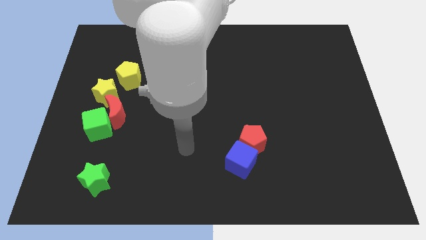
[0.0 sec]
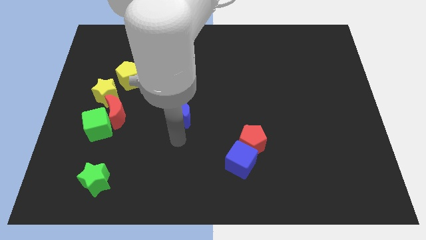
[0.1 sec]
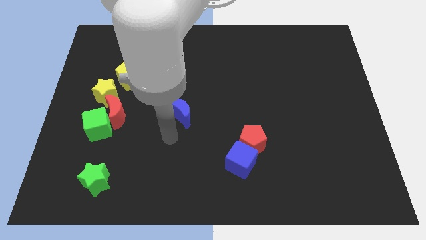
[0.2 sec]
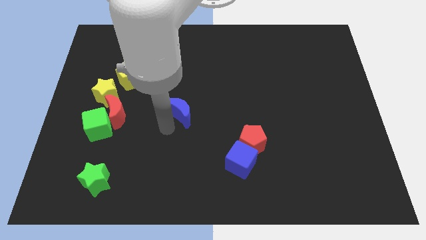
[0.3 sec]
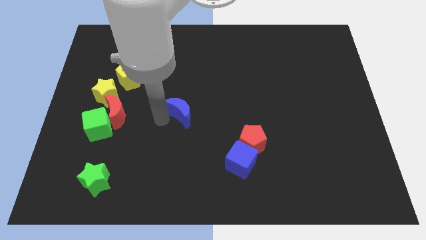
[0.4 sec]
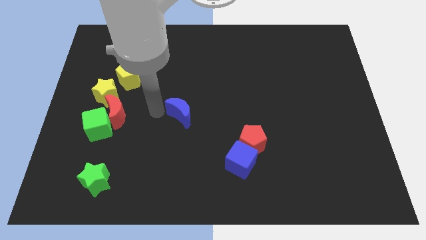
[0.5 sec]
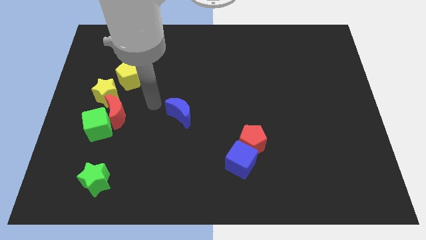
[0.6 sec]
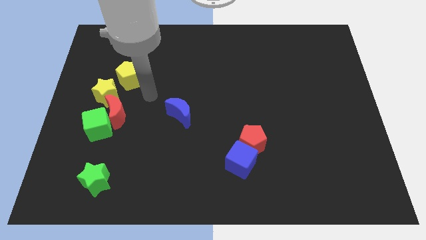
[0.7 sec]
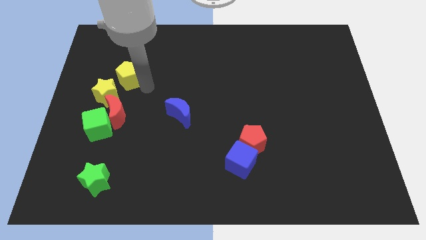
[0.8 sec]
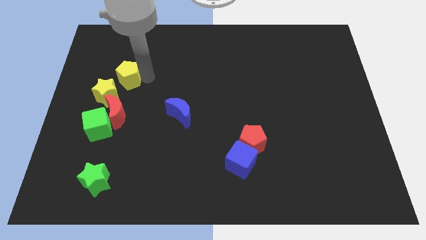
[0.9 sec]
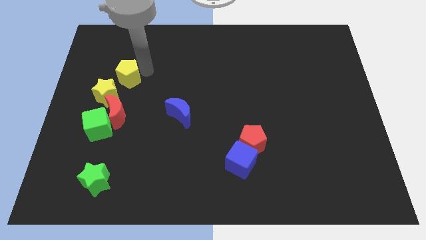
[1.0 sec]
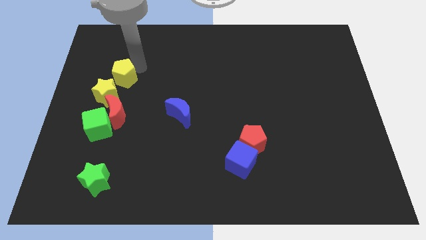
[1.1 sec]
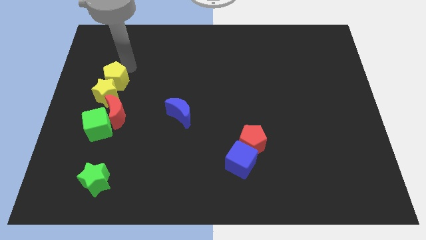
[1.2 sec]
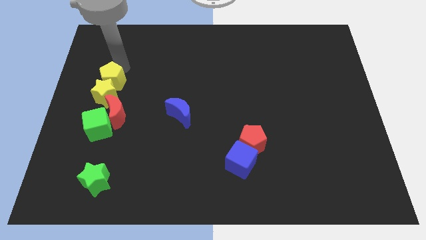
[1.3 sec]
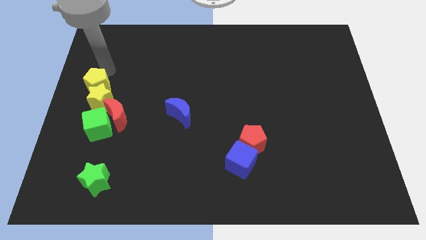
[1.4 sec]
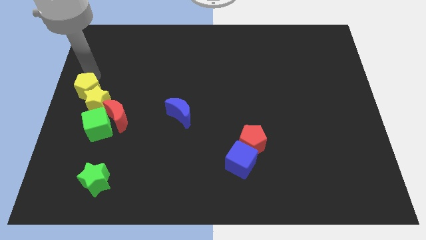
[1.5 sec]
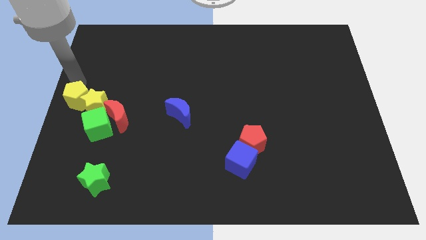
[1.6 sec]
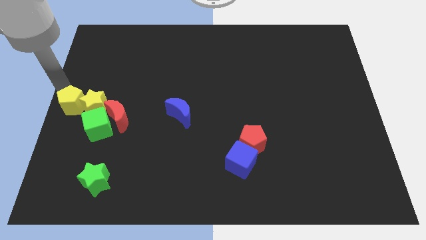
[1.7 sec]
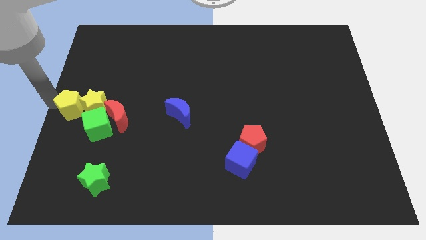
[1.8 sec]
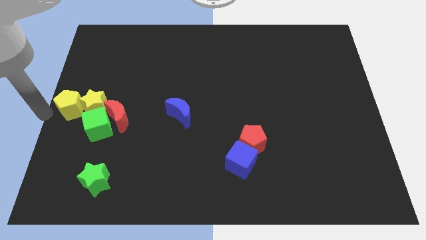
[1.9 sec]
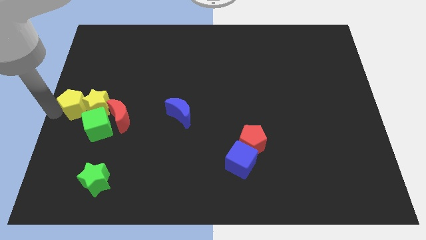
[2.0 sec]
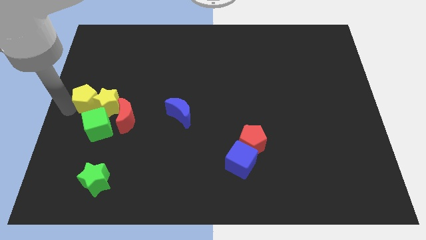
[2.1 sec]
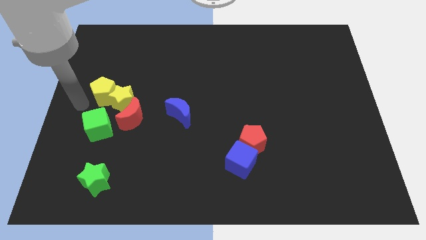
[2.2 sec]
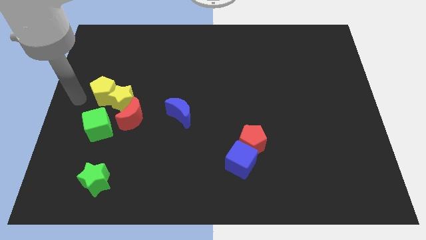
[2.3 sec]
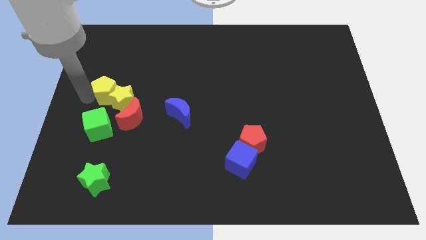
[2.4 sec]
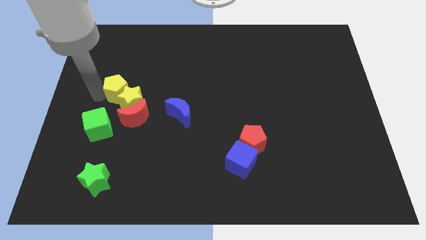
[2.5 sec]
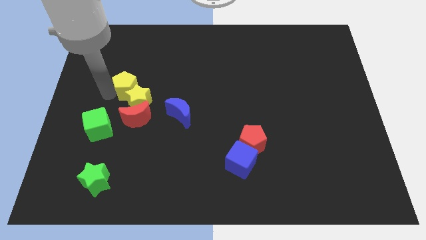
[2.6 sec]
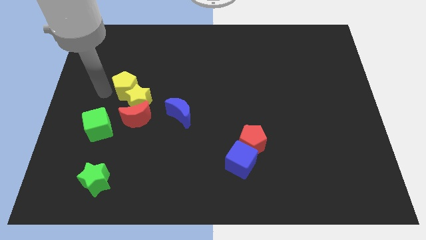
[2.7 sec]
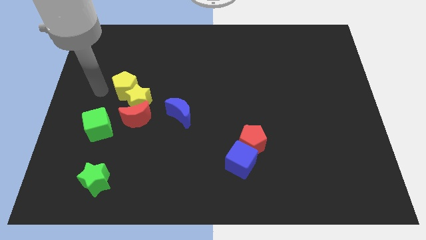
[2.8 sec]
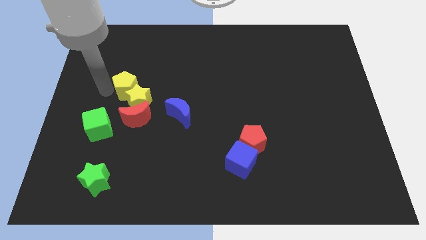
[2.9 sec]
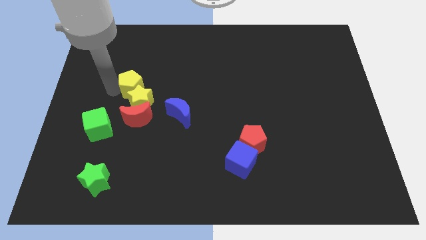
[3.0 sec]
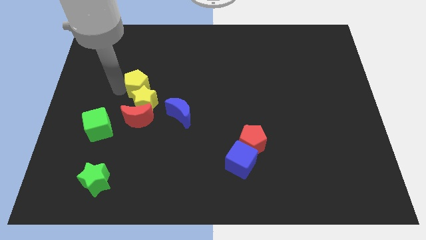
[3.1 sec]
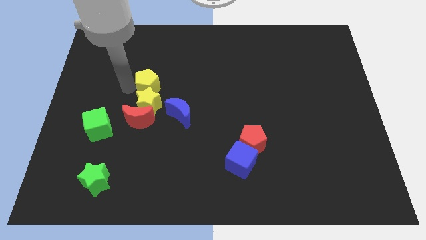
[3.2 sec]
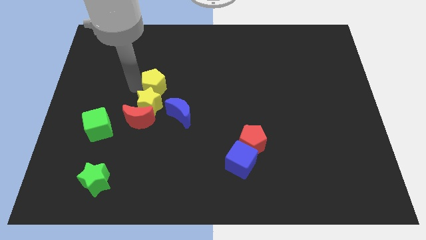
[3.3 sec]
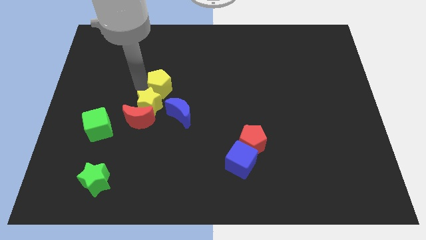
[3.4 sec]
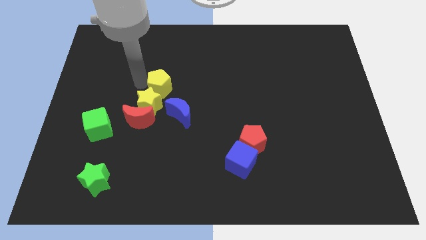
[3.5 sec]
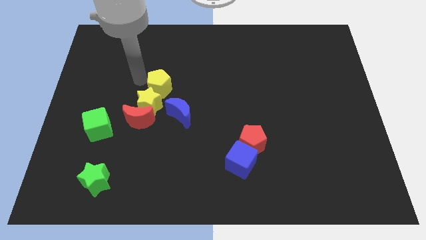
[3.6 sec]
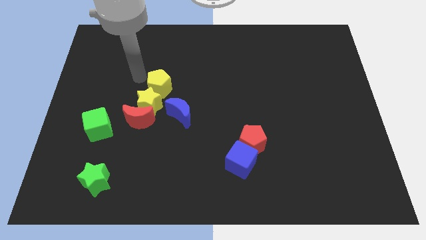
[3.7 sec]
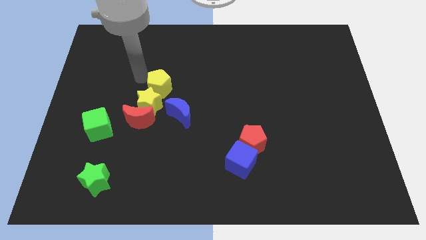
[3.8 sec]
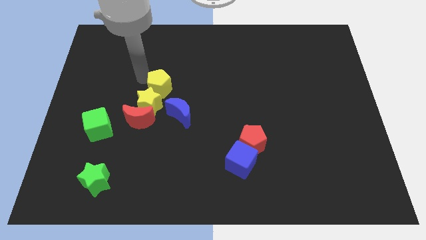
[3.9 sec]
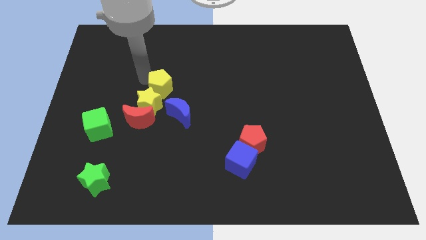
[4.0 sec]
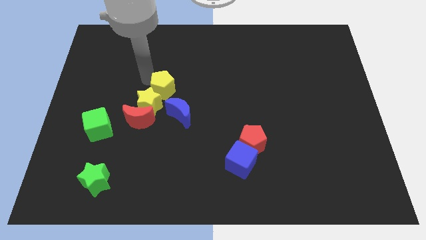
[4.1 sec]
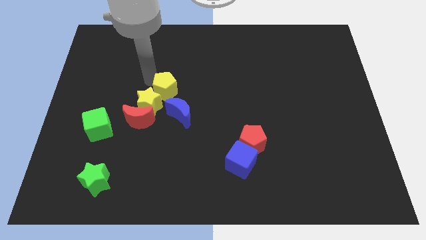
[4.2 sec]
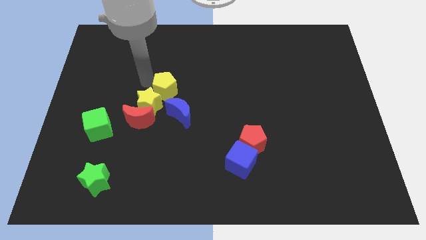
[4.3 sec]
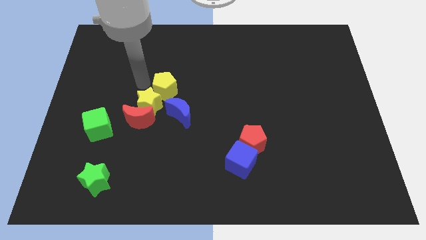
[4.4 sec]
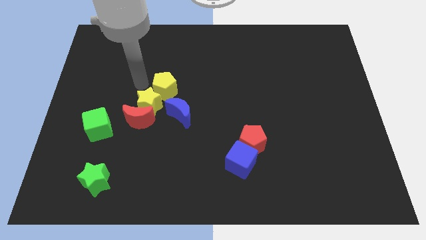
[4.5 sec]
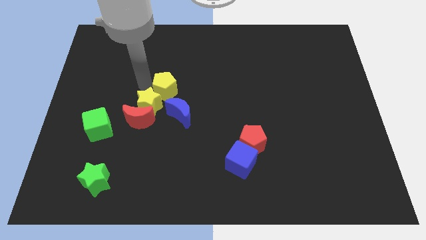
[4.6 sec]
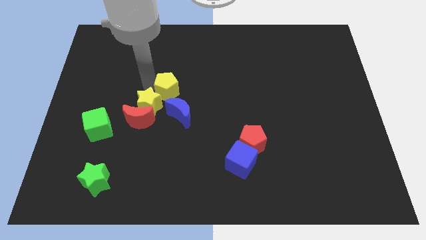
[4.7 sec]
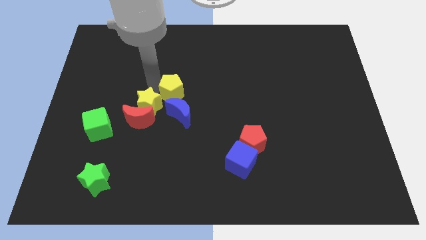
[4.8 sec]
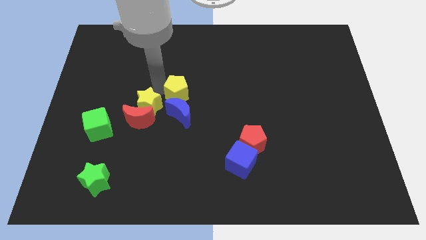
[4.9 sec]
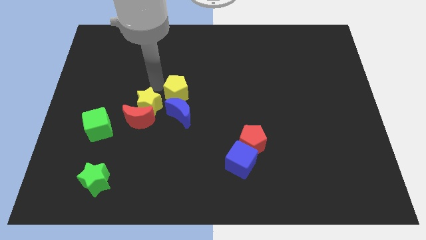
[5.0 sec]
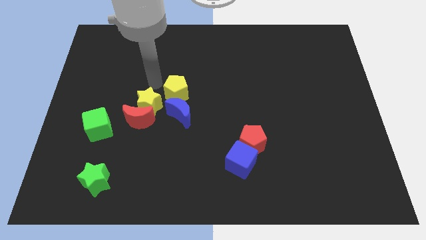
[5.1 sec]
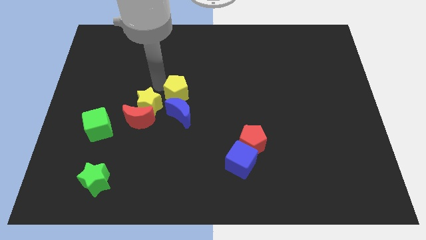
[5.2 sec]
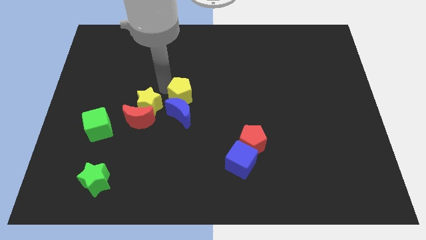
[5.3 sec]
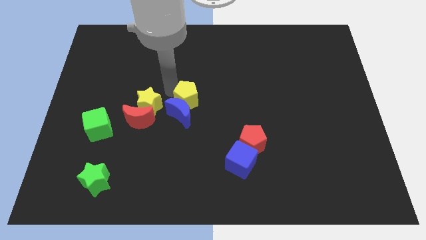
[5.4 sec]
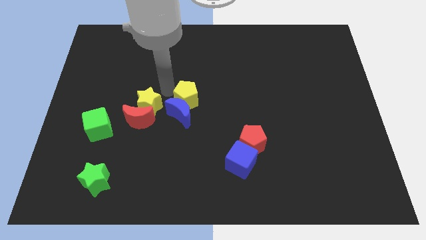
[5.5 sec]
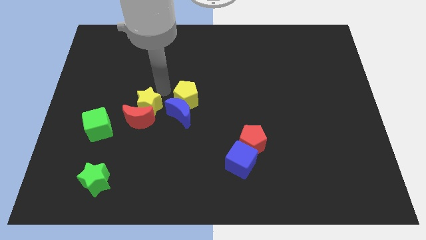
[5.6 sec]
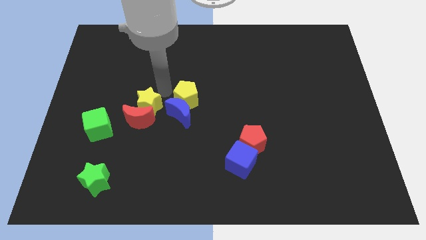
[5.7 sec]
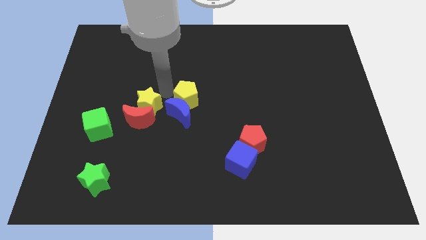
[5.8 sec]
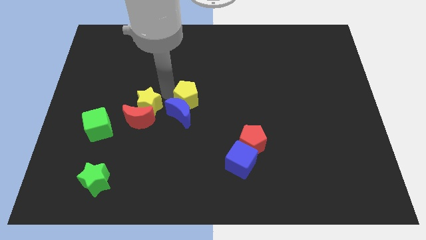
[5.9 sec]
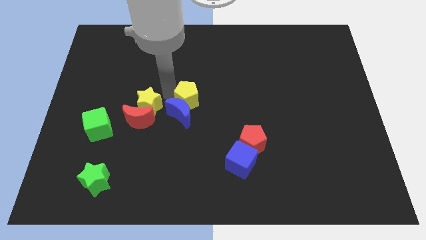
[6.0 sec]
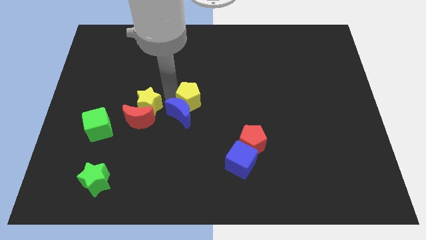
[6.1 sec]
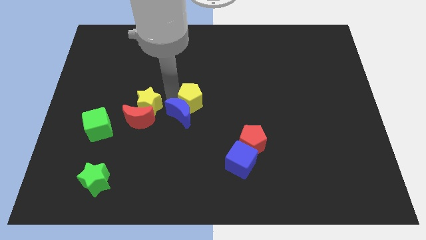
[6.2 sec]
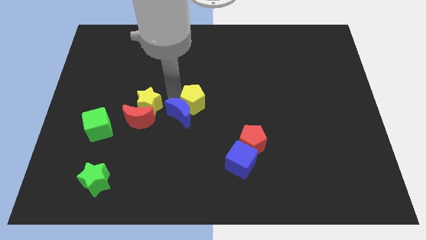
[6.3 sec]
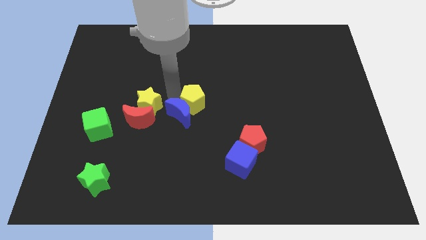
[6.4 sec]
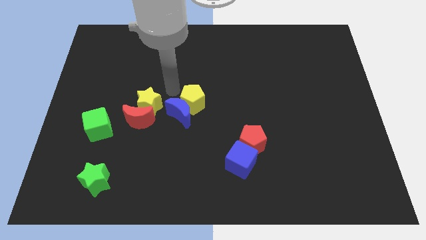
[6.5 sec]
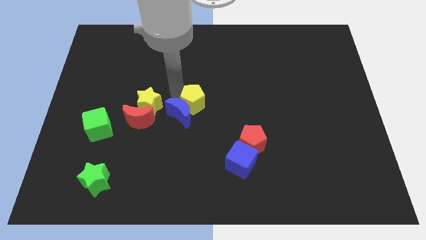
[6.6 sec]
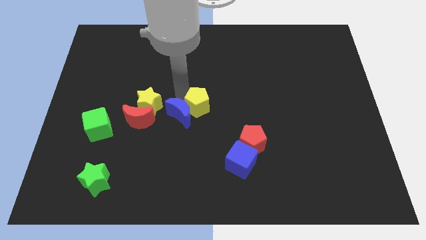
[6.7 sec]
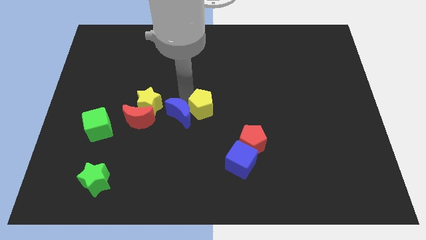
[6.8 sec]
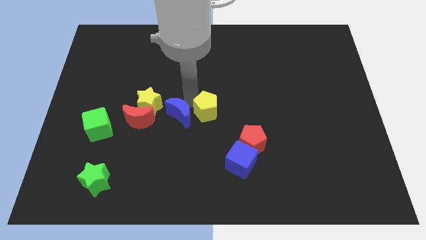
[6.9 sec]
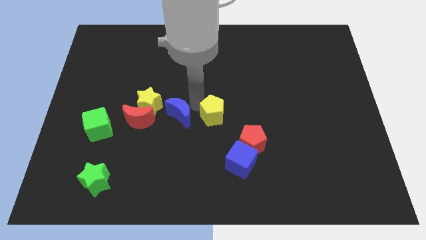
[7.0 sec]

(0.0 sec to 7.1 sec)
put the yellow pentagon to the top left side of the red pentagon

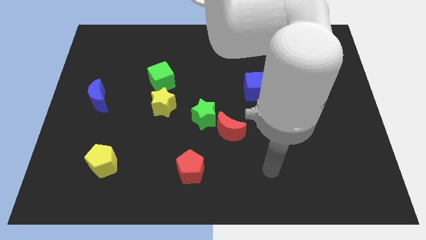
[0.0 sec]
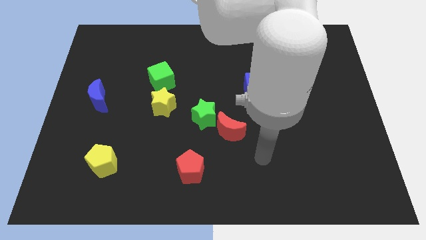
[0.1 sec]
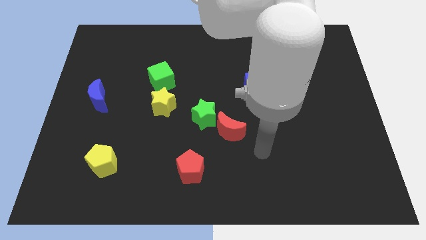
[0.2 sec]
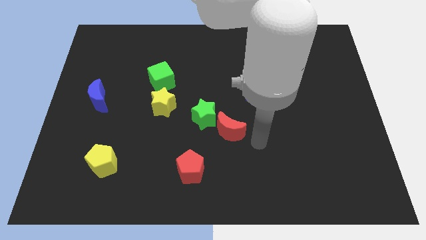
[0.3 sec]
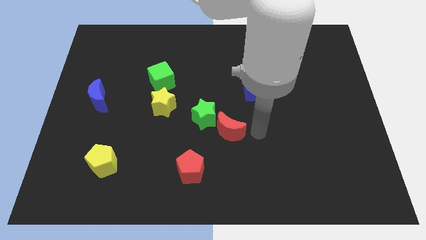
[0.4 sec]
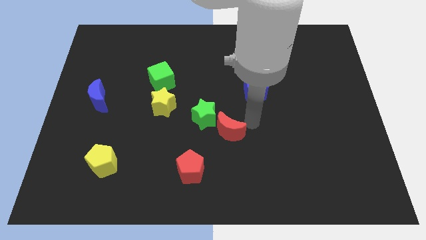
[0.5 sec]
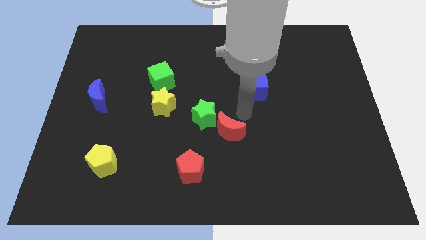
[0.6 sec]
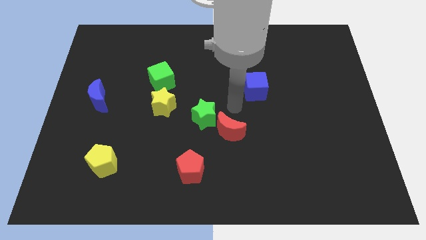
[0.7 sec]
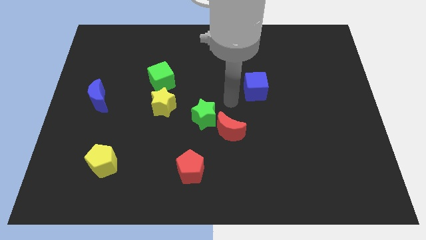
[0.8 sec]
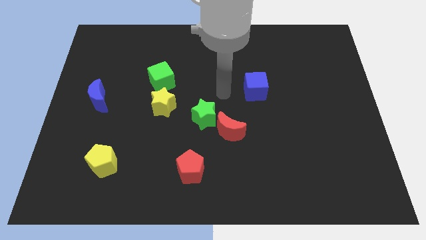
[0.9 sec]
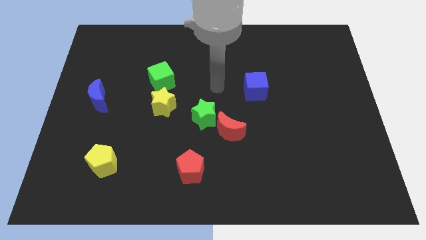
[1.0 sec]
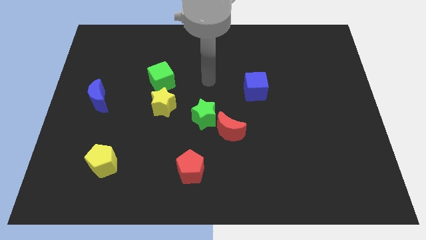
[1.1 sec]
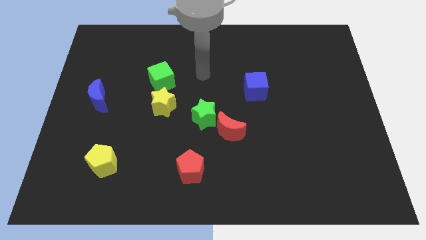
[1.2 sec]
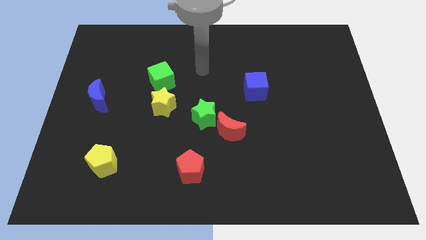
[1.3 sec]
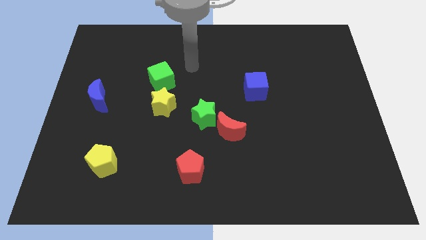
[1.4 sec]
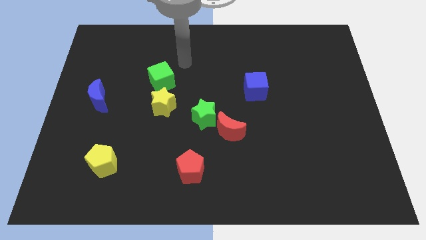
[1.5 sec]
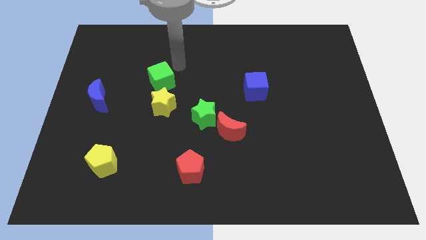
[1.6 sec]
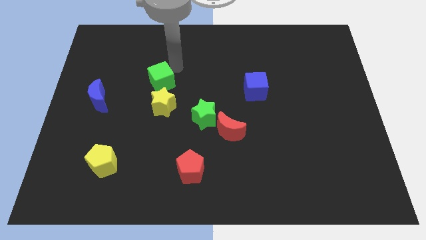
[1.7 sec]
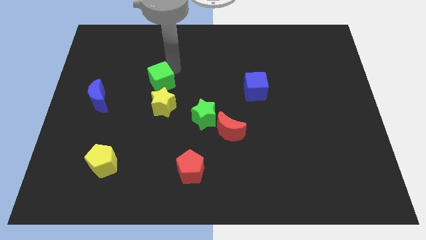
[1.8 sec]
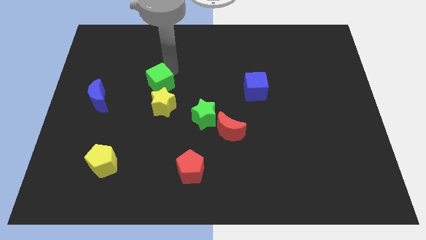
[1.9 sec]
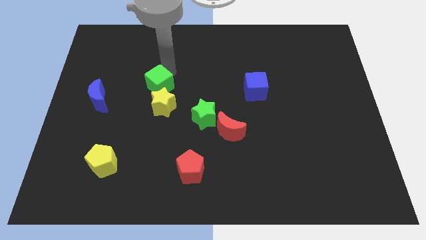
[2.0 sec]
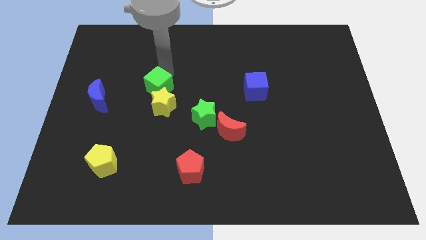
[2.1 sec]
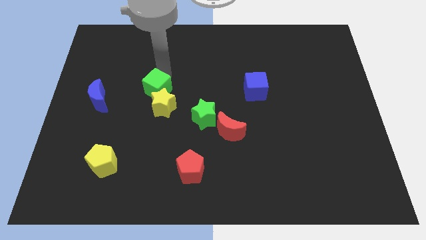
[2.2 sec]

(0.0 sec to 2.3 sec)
move the green cube just right of the blue moon
